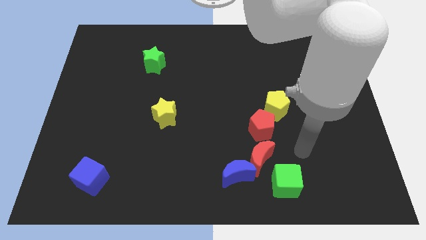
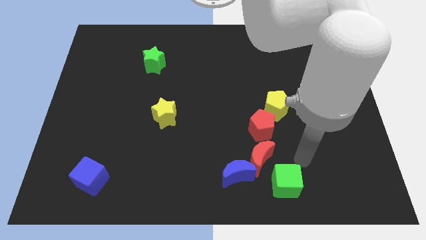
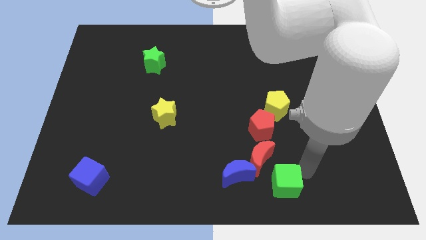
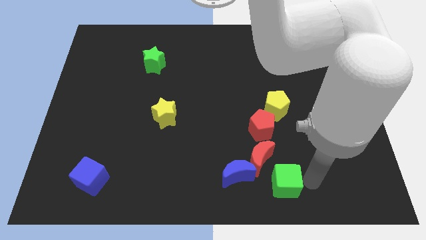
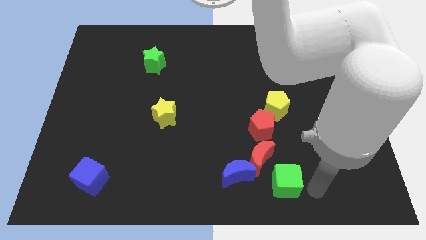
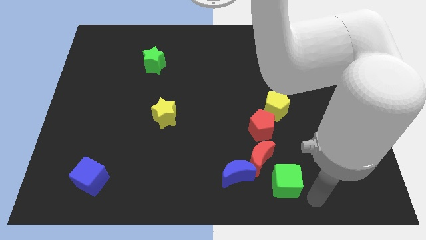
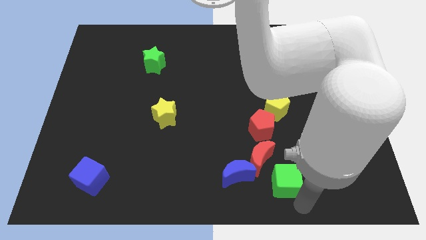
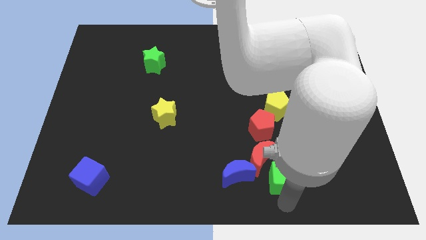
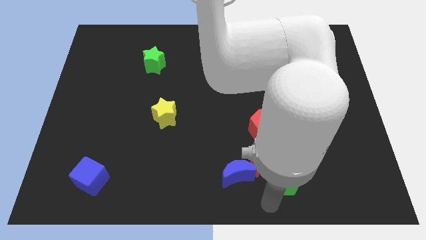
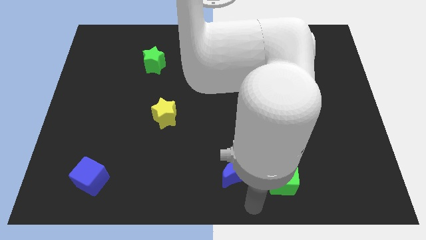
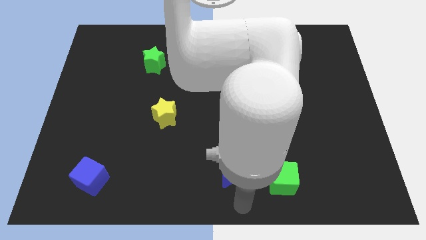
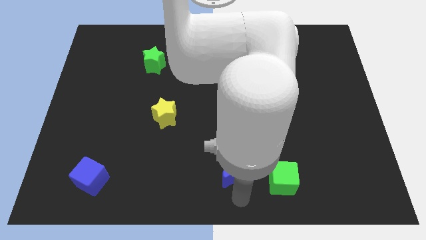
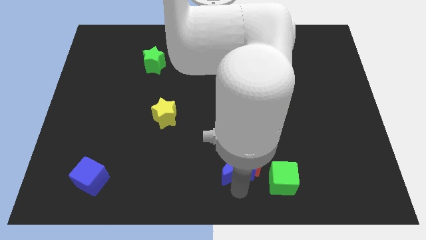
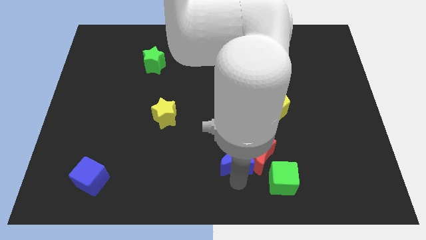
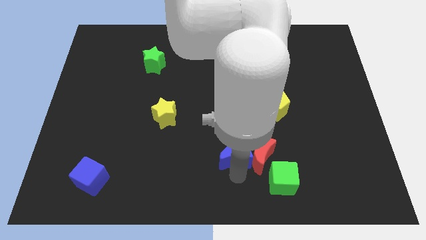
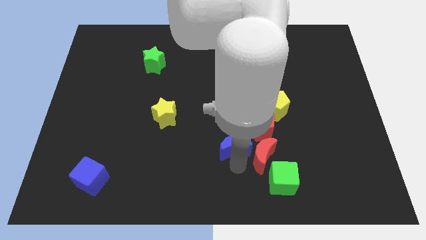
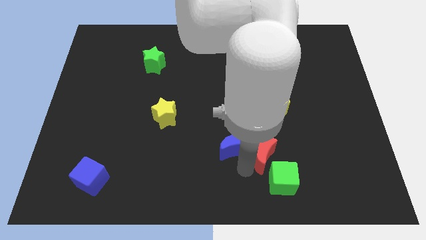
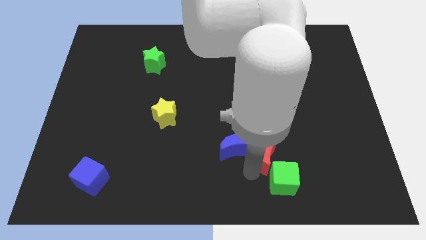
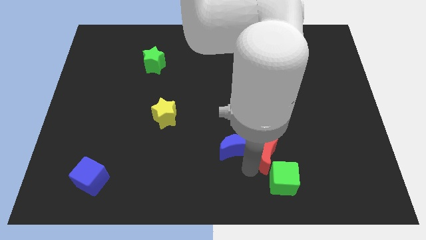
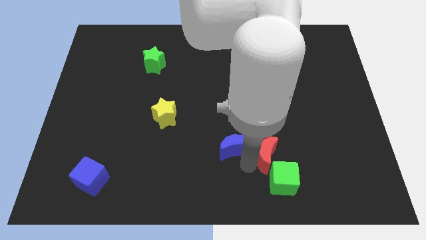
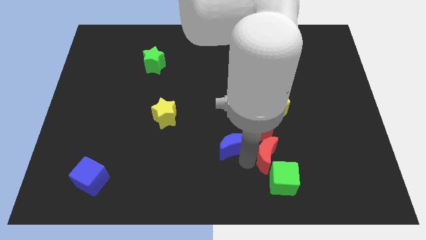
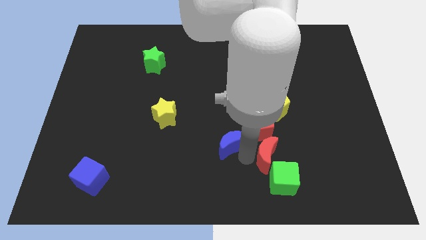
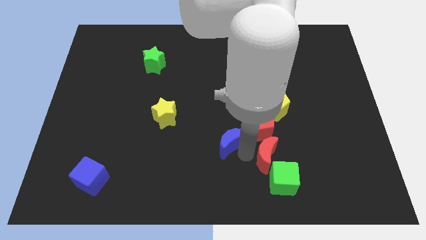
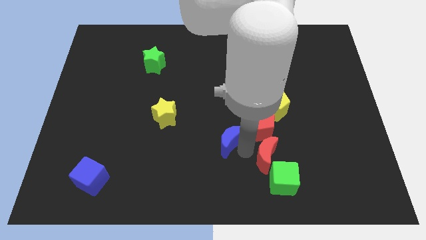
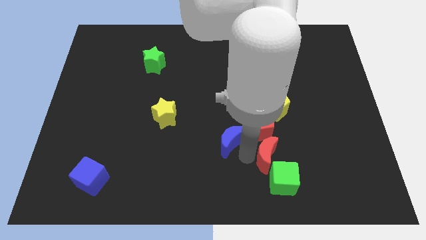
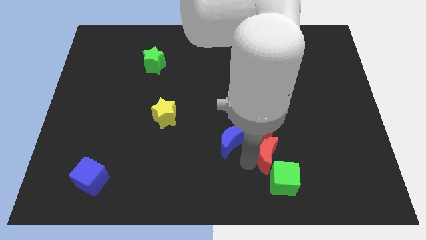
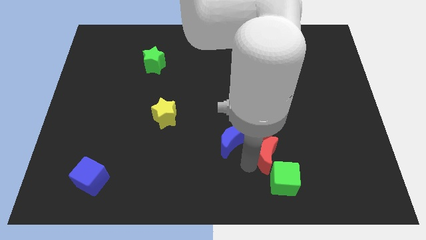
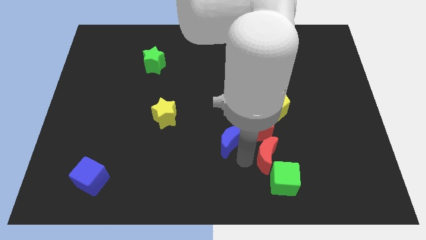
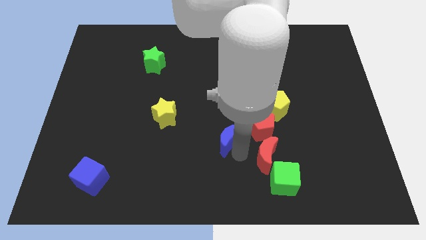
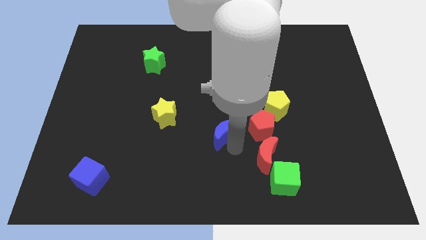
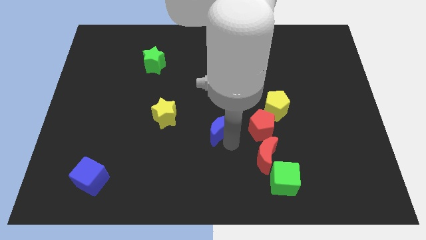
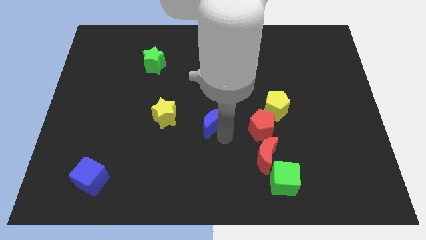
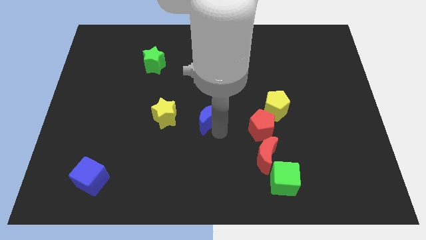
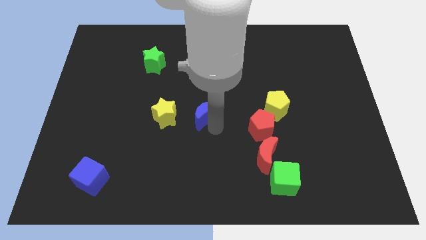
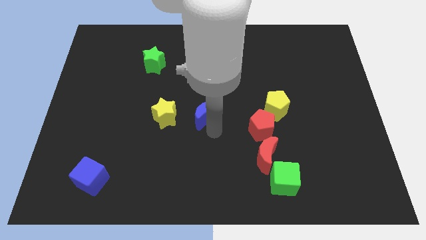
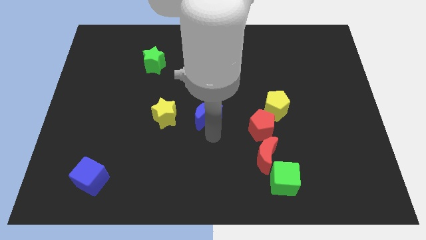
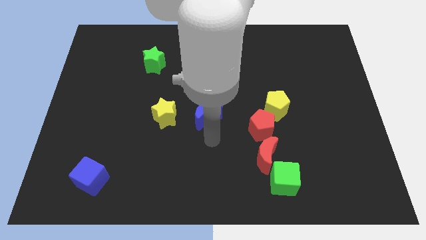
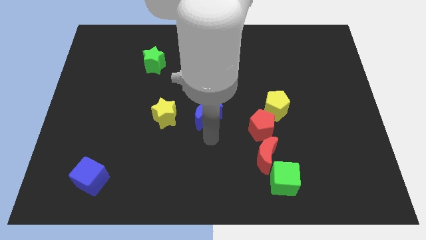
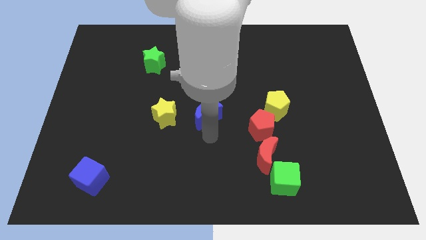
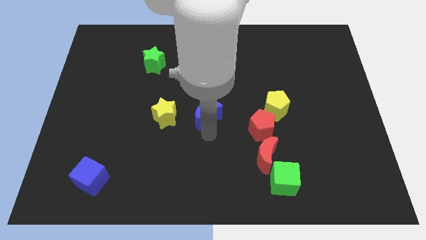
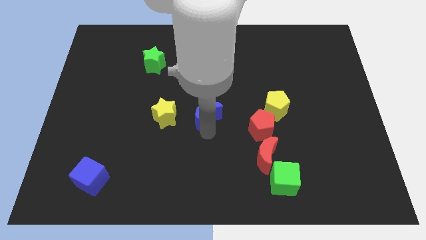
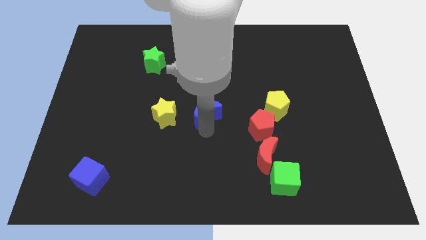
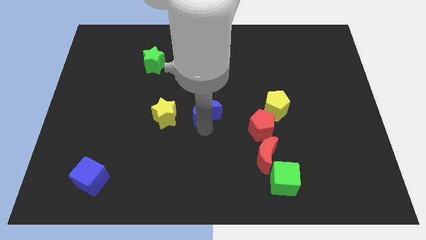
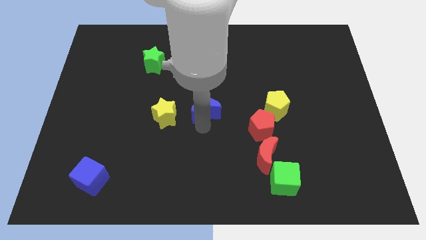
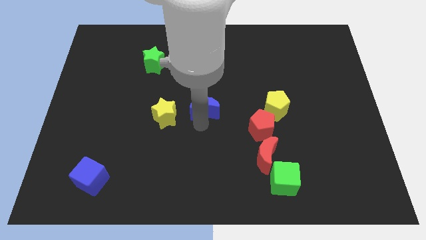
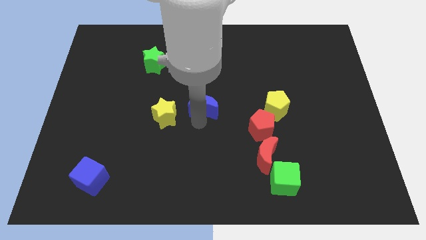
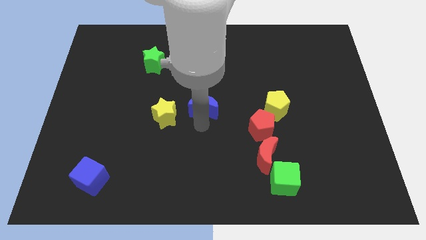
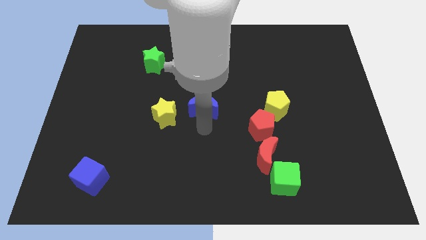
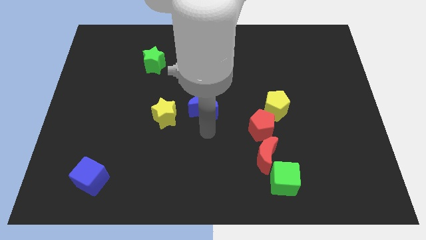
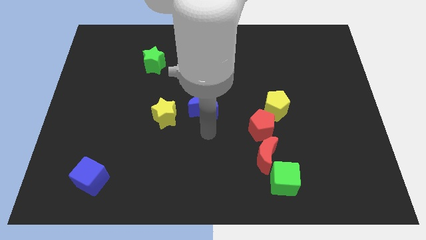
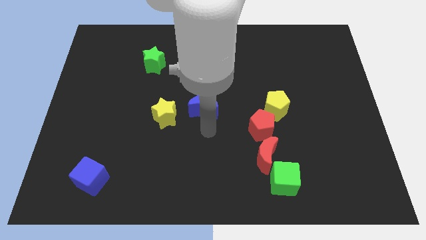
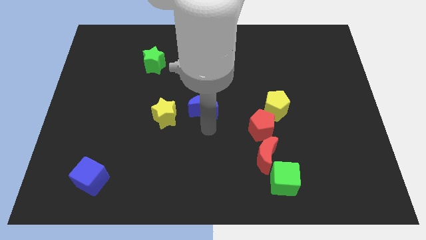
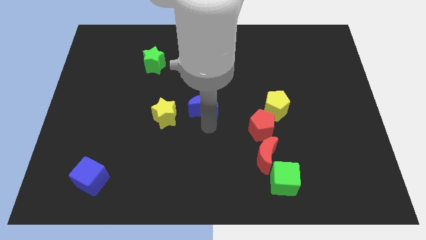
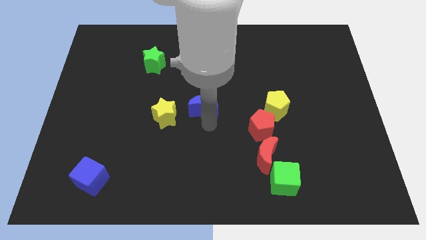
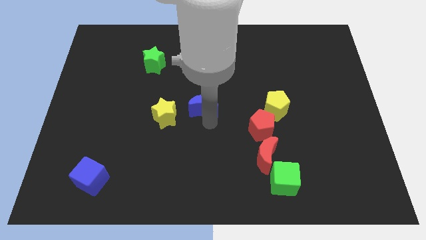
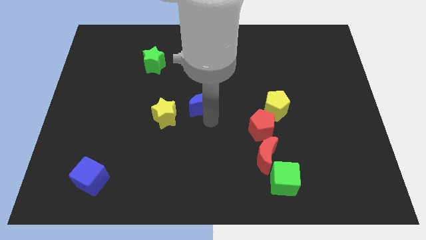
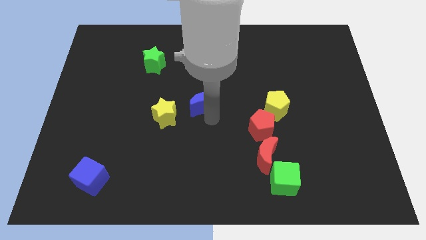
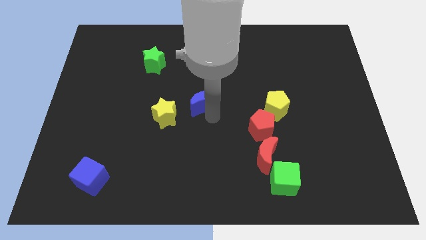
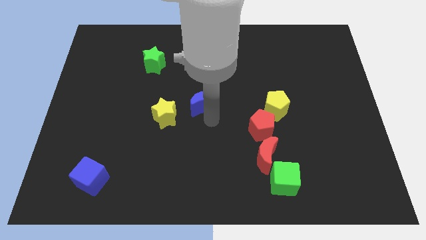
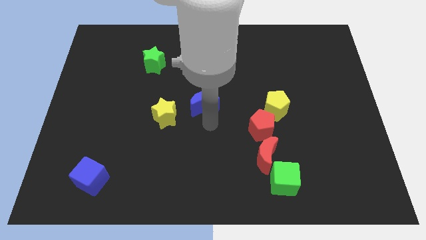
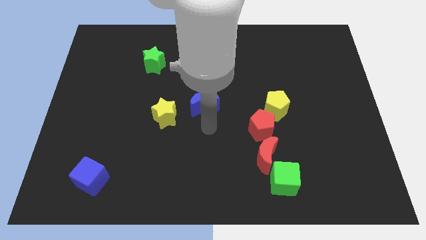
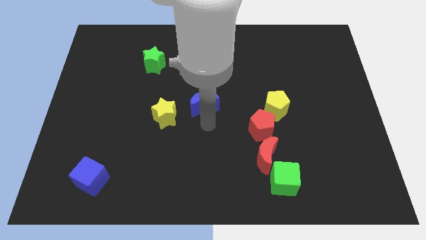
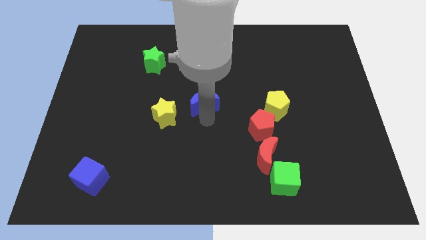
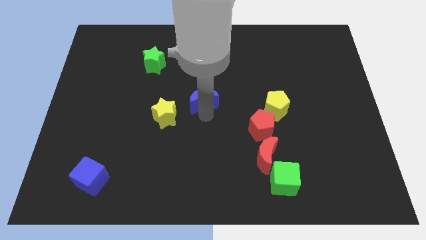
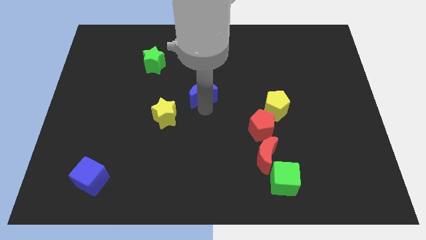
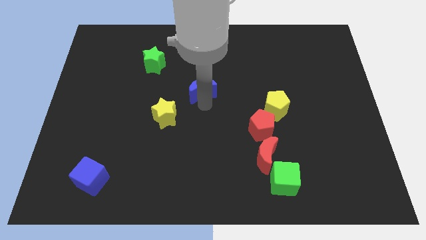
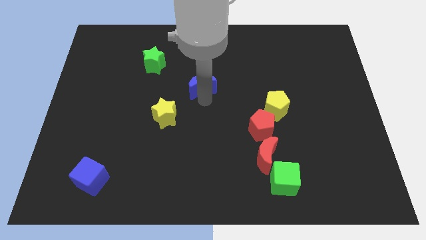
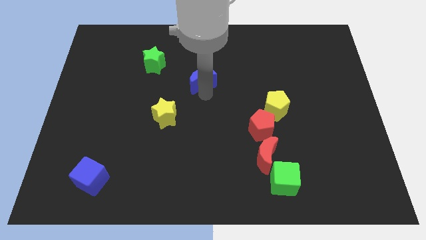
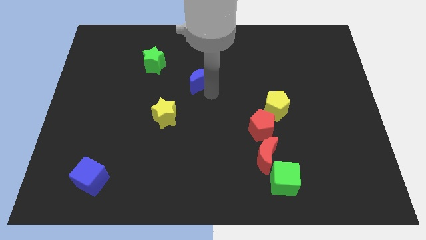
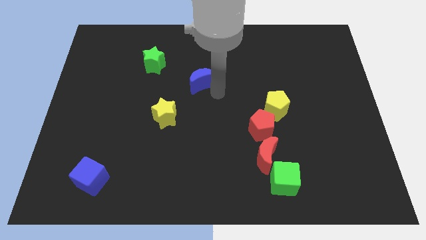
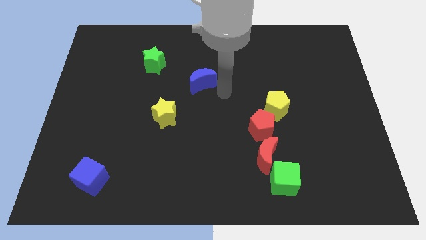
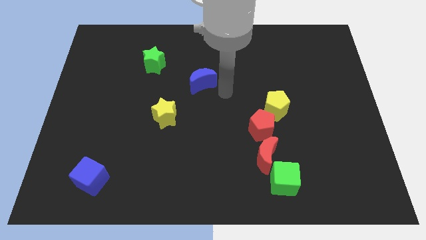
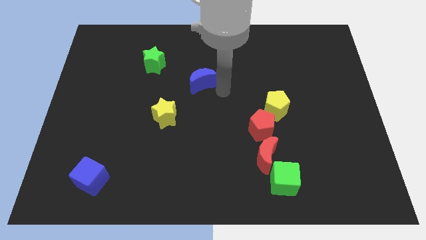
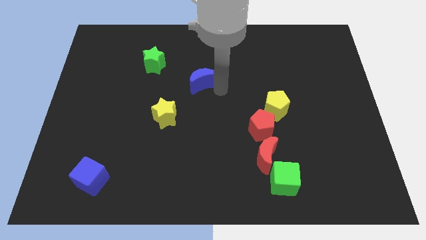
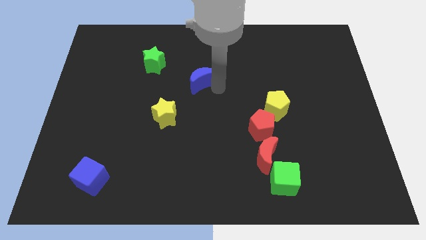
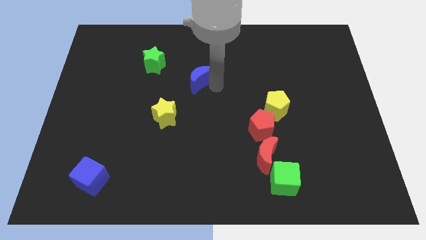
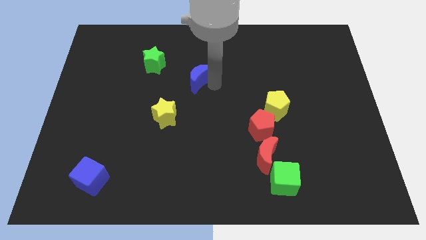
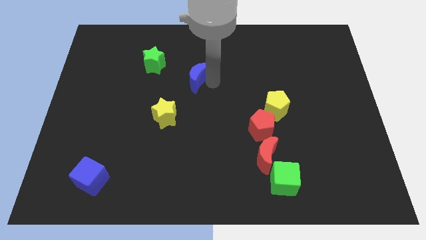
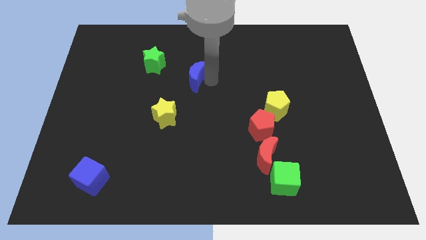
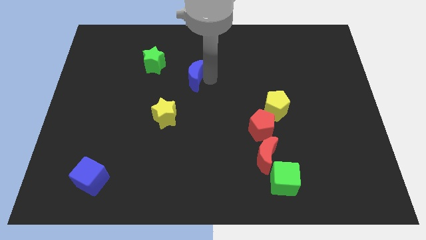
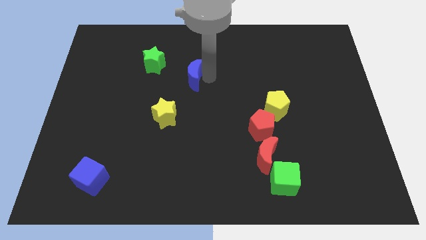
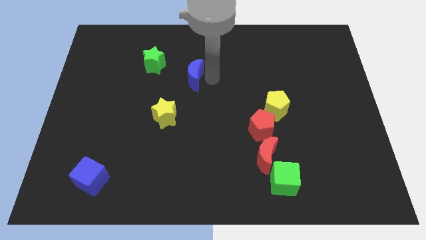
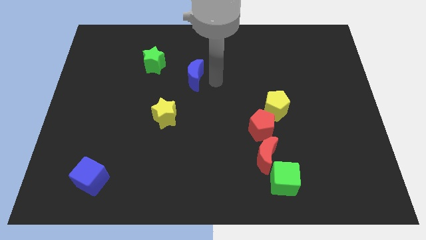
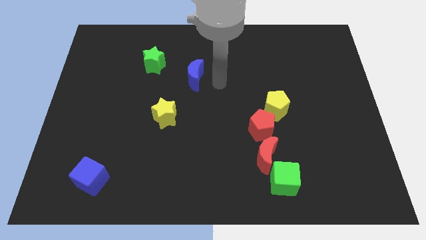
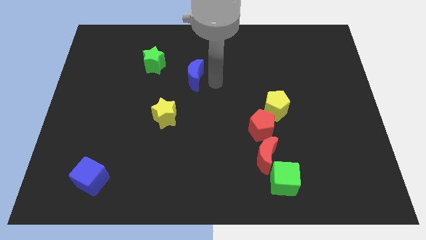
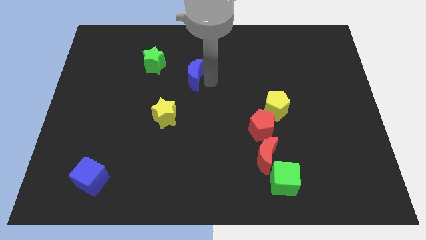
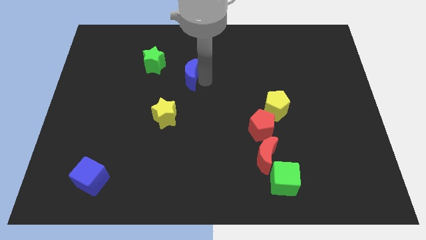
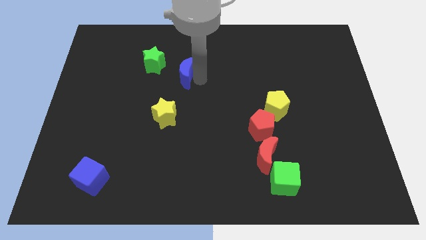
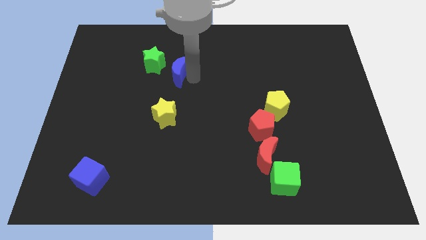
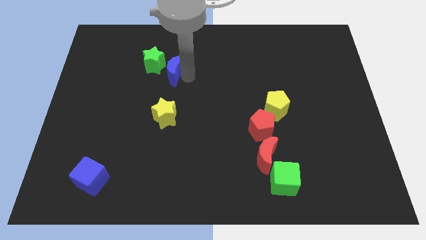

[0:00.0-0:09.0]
move the blue moon next to the green star
